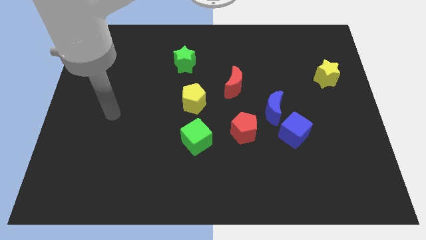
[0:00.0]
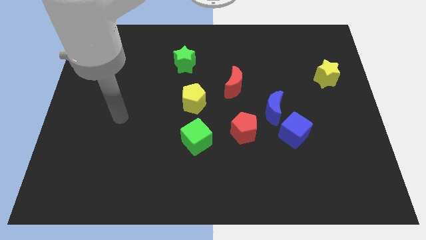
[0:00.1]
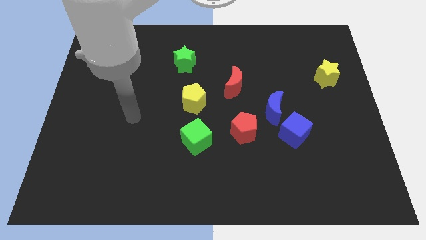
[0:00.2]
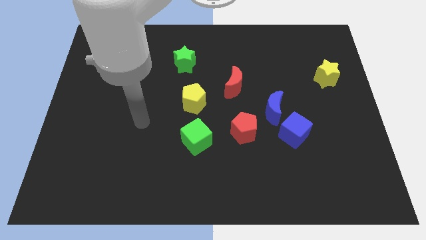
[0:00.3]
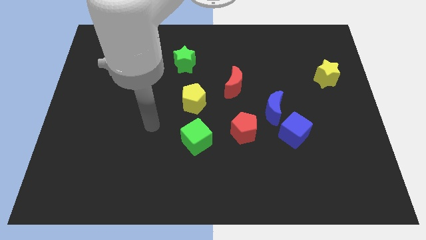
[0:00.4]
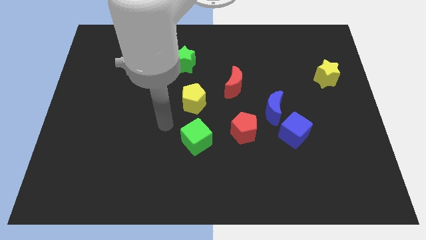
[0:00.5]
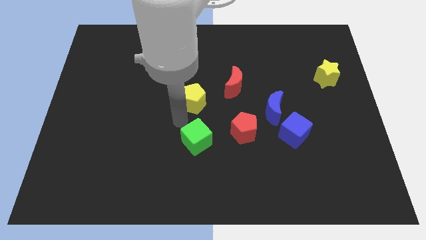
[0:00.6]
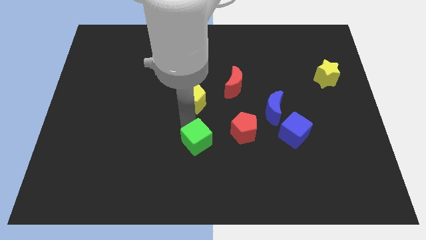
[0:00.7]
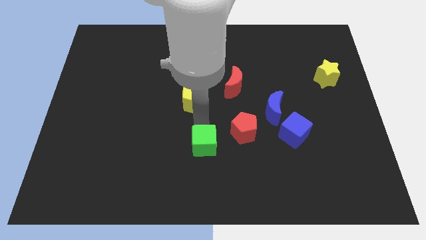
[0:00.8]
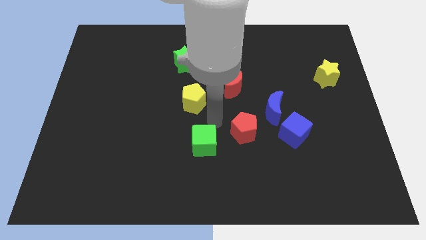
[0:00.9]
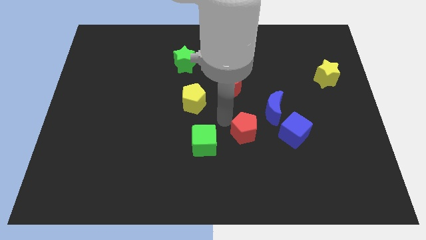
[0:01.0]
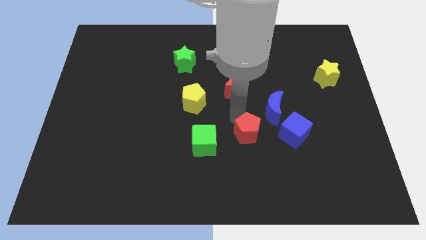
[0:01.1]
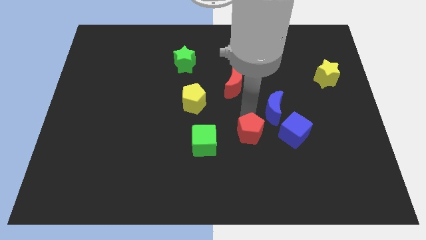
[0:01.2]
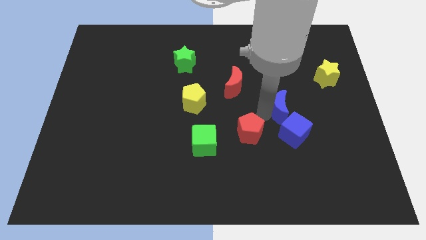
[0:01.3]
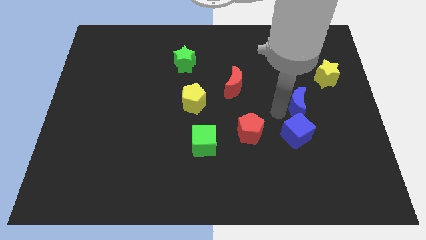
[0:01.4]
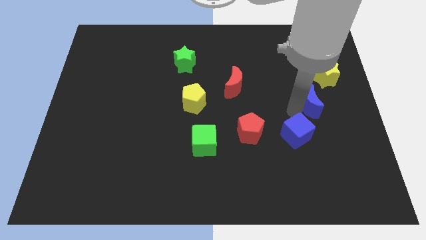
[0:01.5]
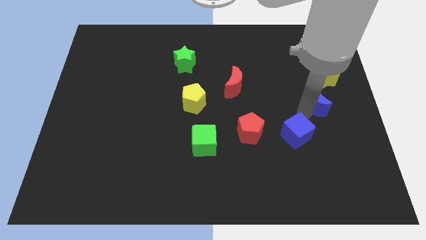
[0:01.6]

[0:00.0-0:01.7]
pull the blue cube apart from the blue moon

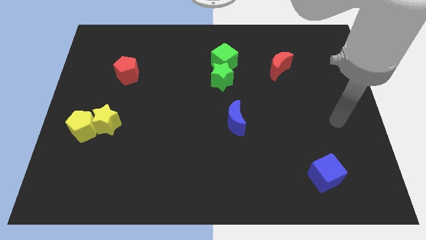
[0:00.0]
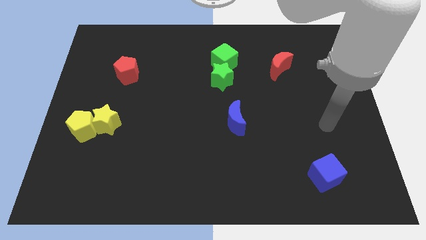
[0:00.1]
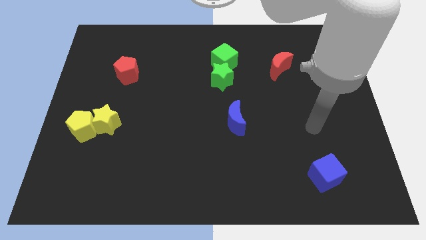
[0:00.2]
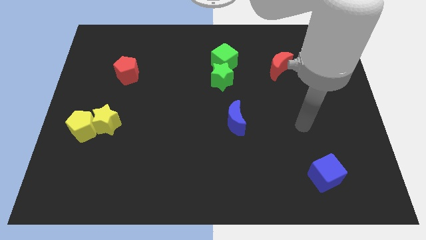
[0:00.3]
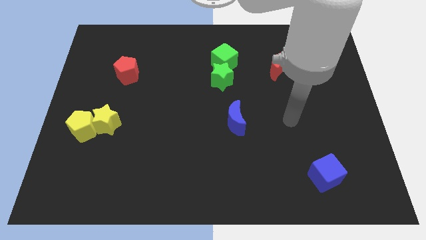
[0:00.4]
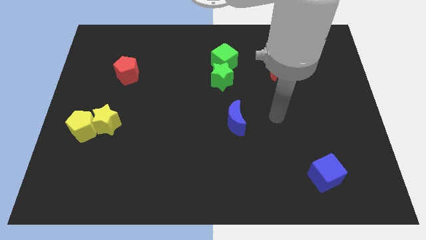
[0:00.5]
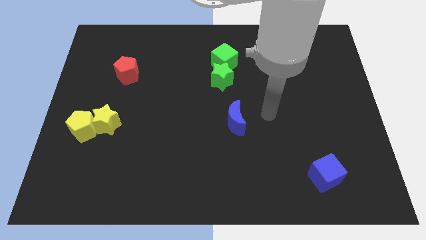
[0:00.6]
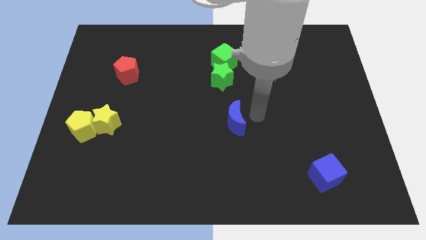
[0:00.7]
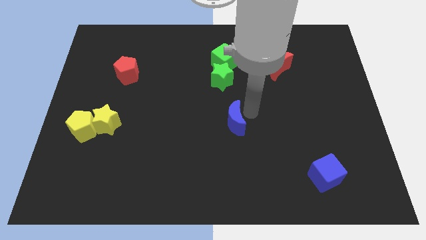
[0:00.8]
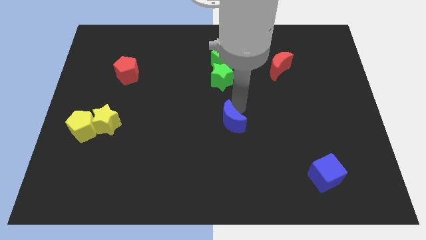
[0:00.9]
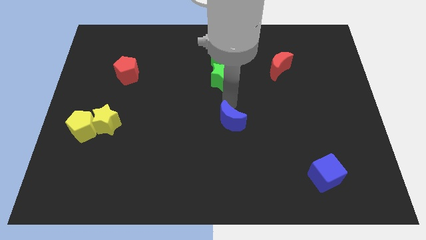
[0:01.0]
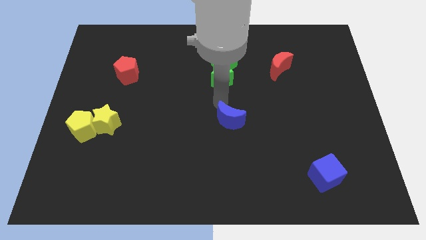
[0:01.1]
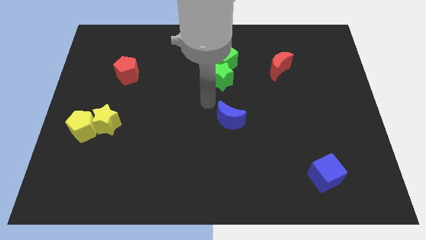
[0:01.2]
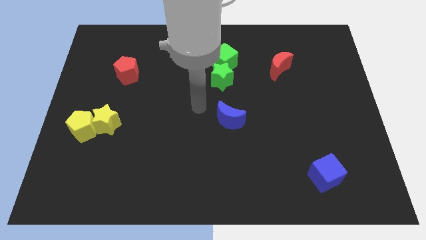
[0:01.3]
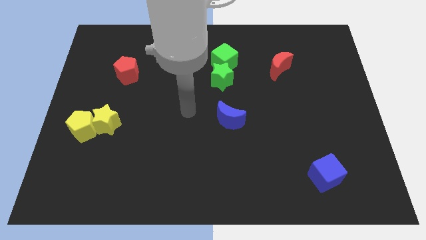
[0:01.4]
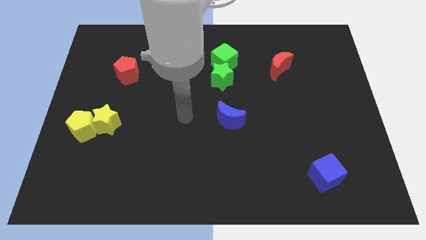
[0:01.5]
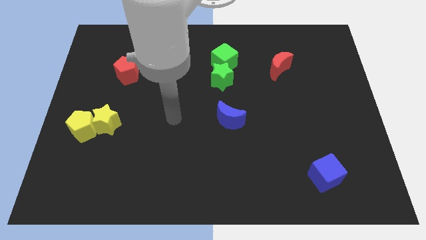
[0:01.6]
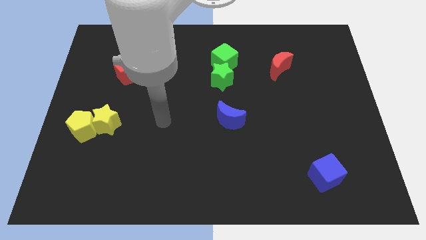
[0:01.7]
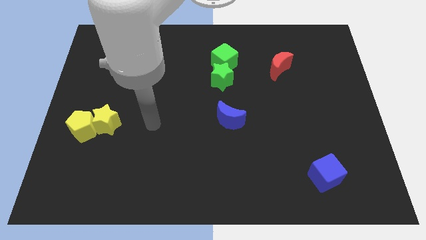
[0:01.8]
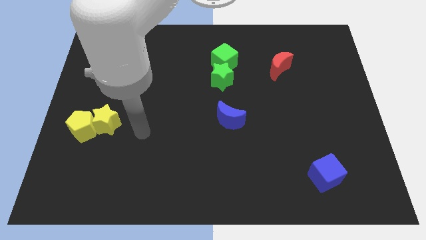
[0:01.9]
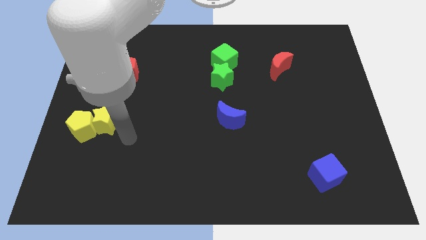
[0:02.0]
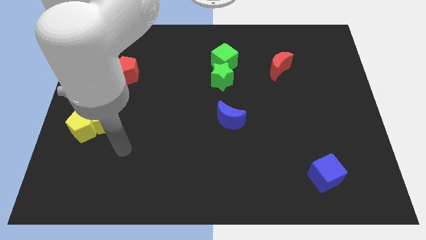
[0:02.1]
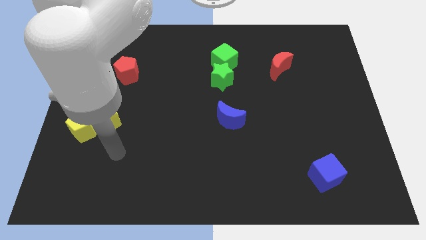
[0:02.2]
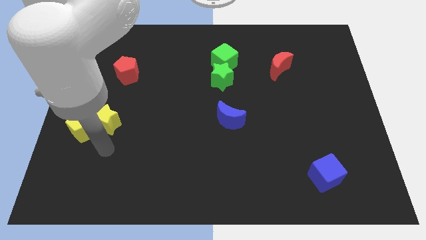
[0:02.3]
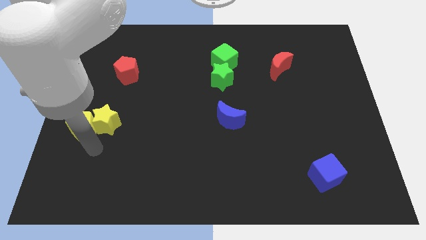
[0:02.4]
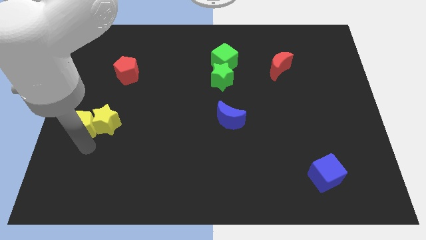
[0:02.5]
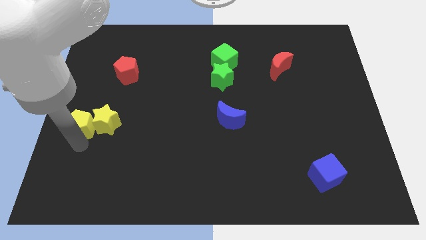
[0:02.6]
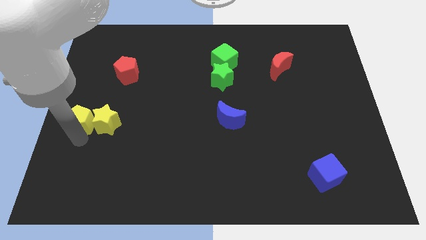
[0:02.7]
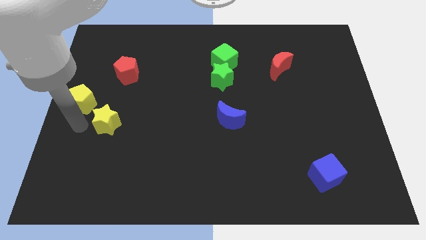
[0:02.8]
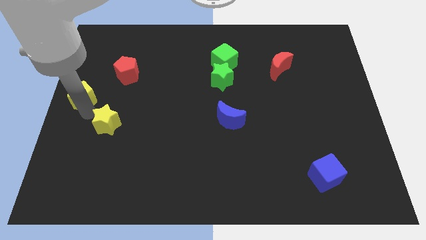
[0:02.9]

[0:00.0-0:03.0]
move the yellow star away from the yellow pentagon

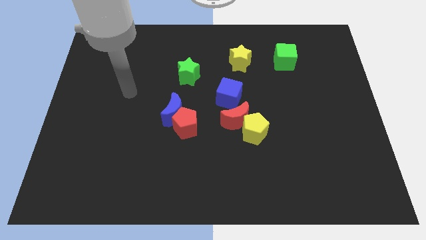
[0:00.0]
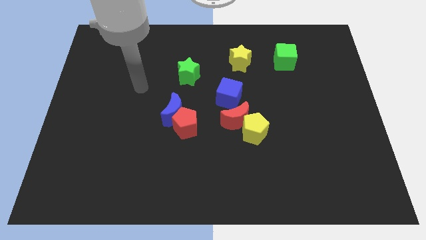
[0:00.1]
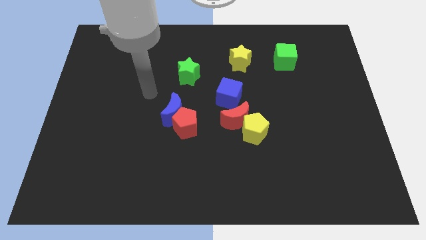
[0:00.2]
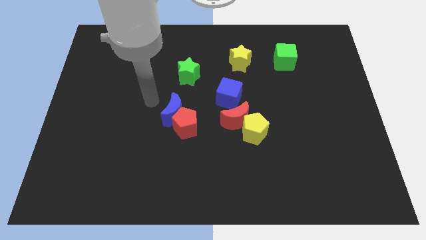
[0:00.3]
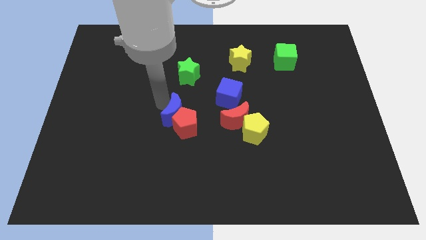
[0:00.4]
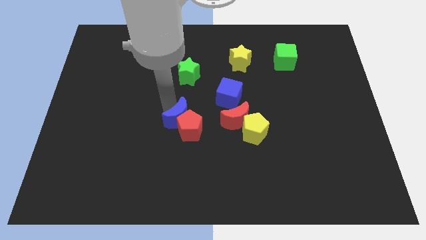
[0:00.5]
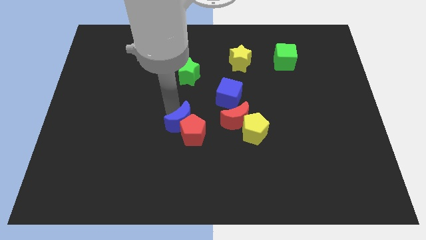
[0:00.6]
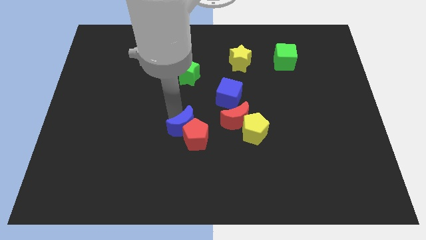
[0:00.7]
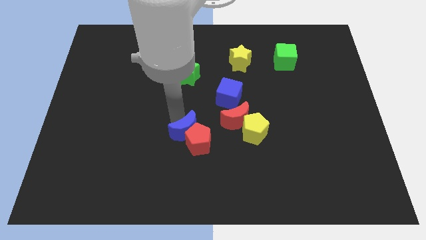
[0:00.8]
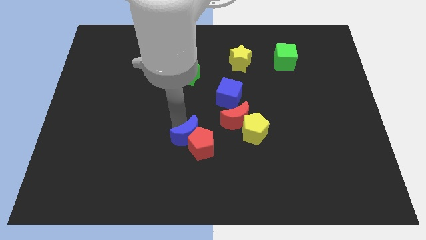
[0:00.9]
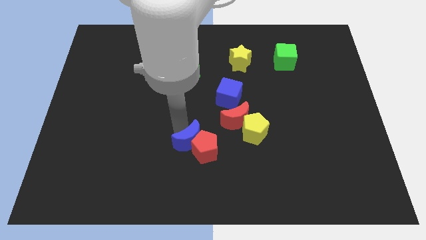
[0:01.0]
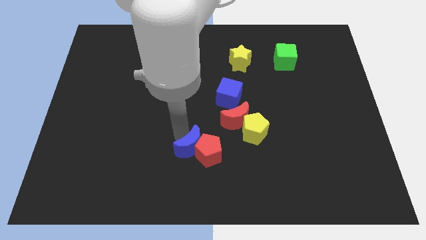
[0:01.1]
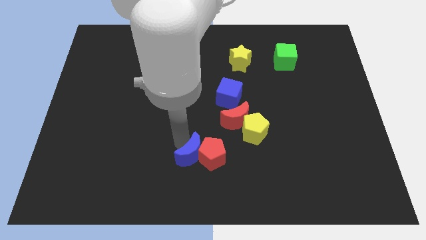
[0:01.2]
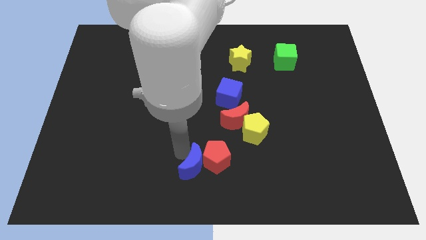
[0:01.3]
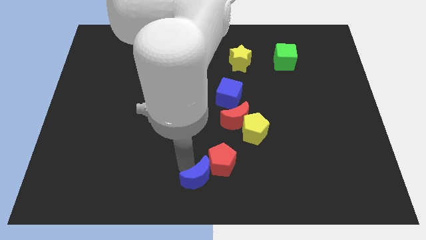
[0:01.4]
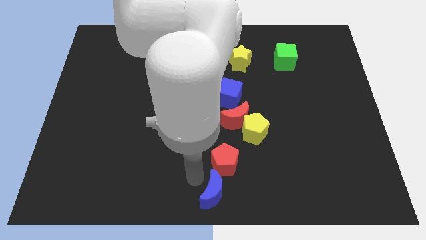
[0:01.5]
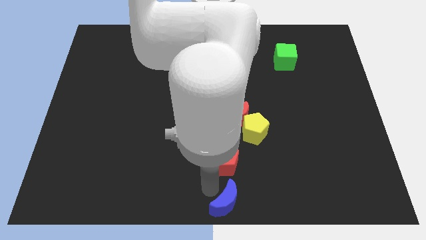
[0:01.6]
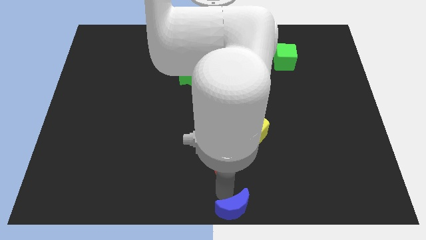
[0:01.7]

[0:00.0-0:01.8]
separate the red pentagon from the blue moon

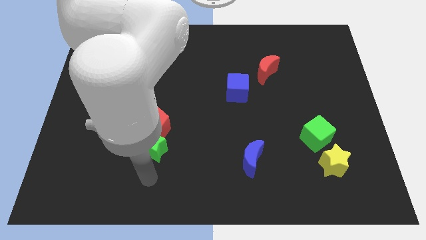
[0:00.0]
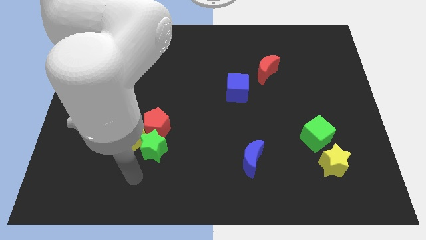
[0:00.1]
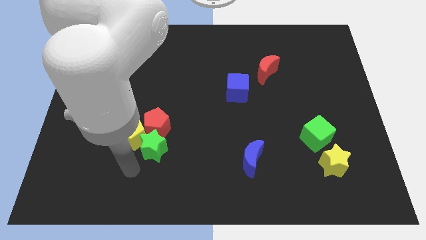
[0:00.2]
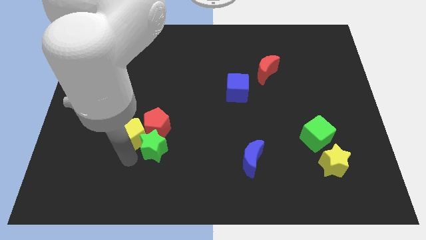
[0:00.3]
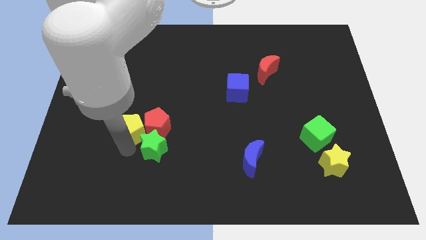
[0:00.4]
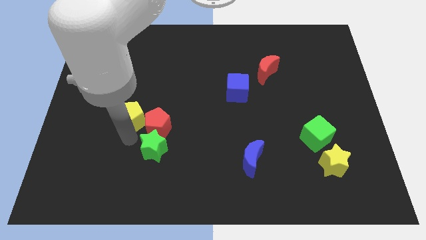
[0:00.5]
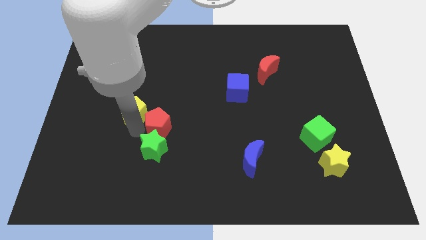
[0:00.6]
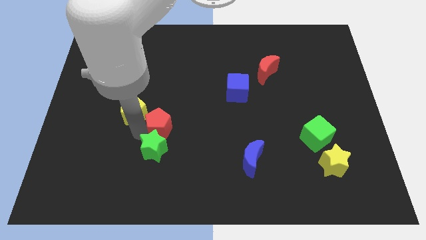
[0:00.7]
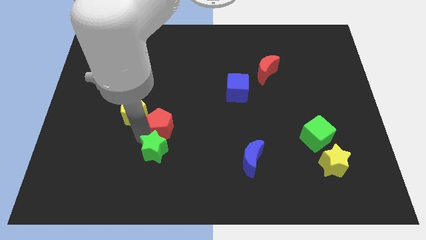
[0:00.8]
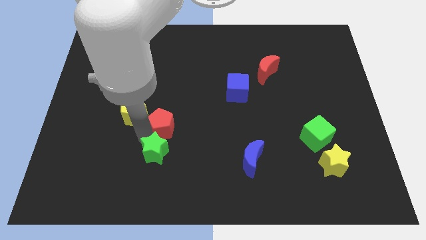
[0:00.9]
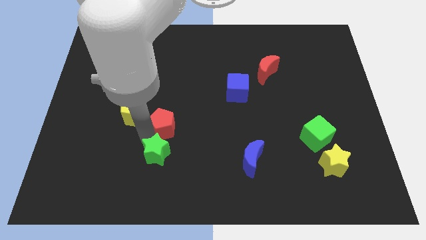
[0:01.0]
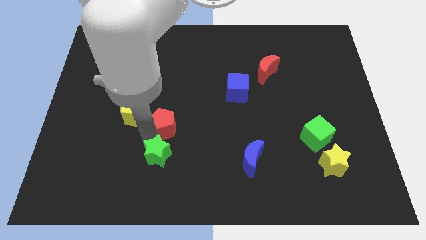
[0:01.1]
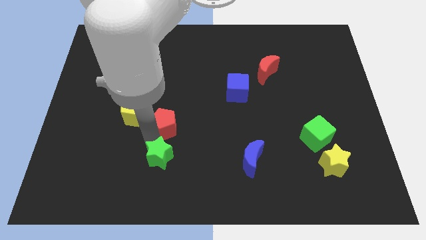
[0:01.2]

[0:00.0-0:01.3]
pull the green star apart from the yellow pentagon and red pentagon

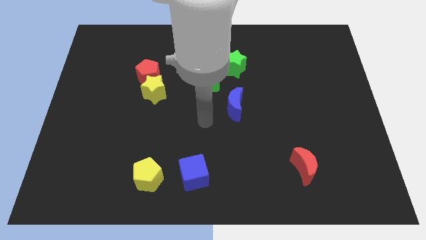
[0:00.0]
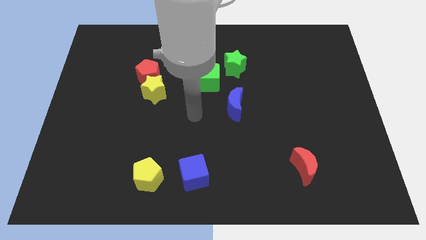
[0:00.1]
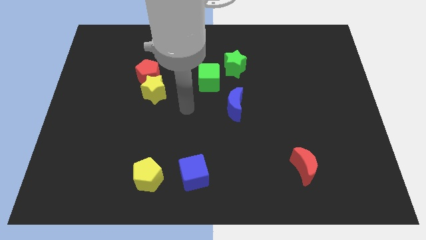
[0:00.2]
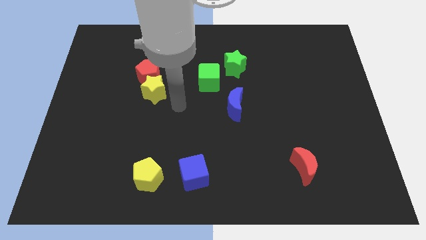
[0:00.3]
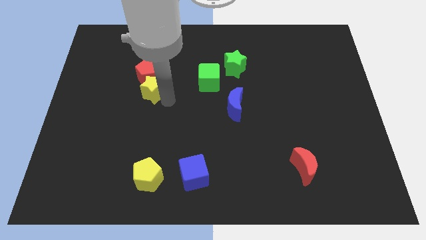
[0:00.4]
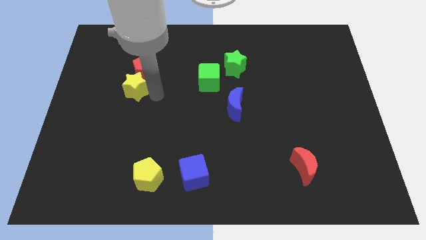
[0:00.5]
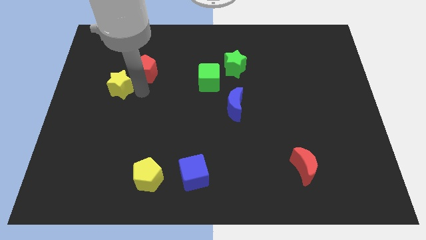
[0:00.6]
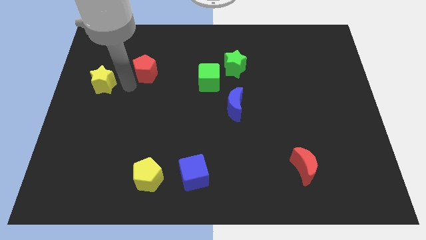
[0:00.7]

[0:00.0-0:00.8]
separate the red pentagon from the yellow star

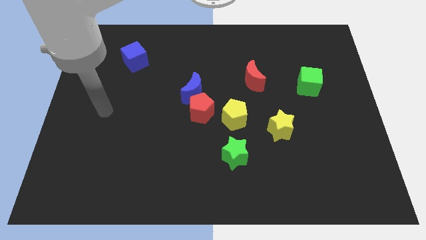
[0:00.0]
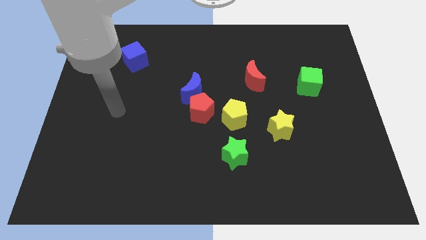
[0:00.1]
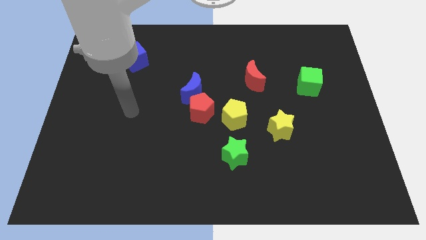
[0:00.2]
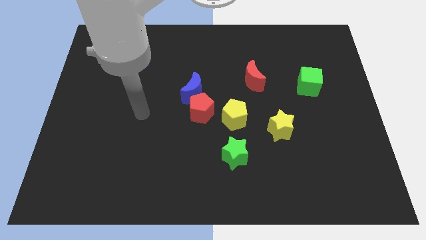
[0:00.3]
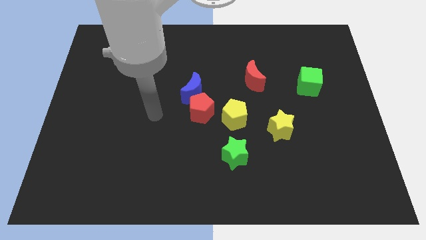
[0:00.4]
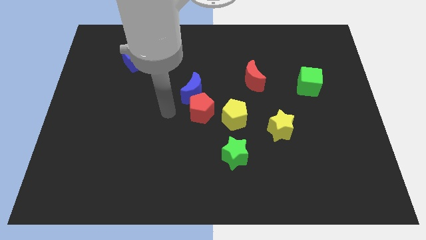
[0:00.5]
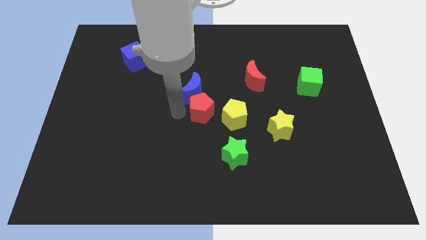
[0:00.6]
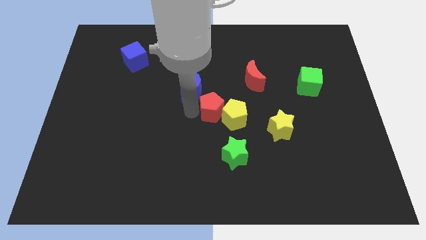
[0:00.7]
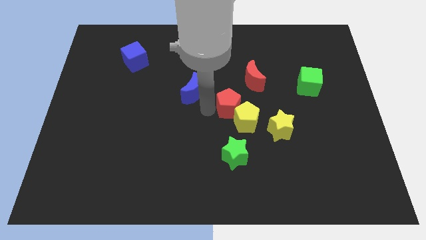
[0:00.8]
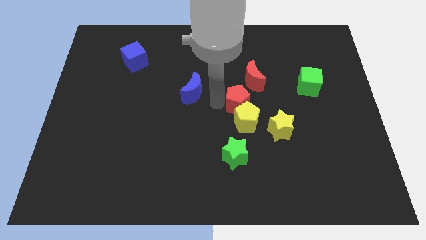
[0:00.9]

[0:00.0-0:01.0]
move the blue moon away from the red pentagon
